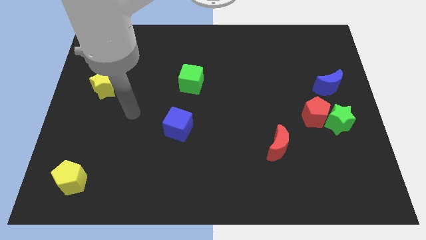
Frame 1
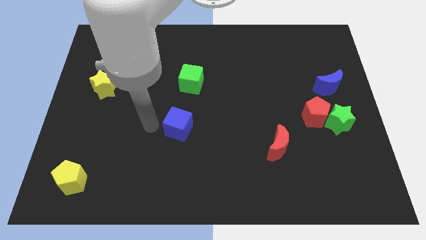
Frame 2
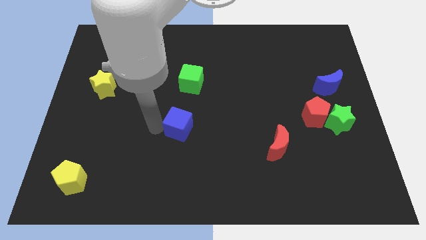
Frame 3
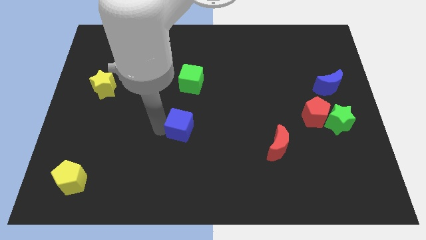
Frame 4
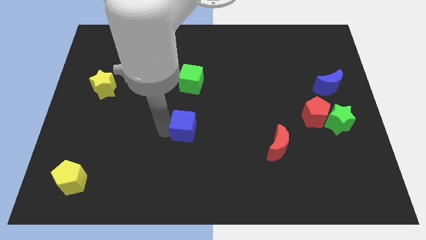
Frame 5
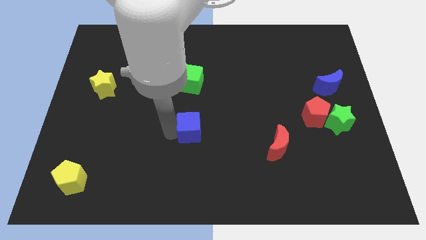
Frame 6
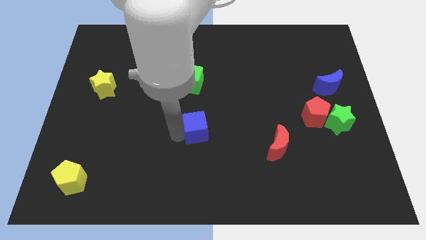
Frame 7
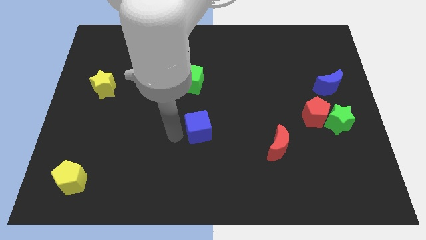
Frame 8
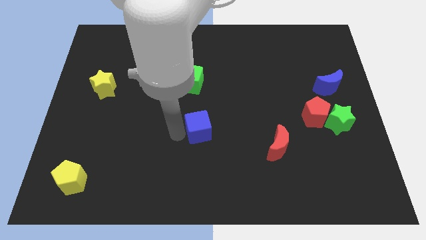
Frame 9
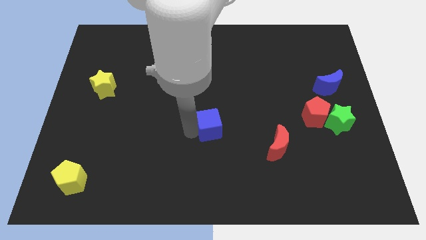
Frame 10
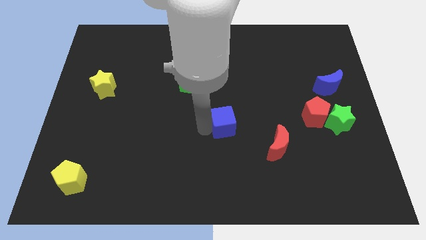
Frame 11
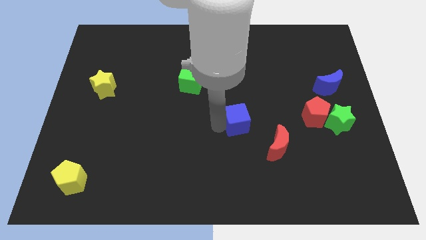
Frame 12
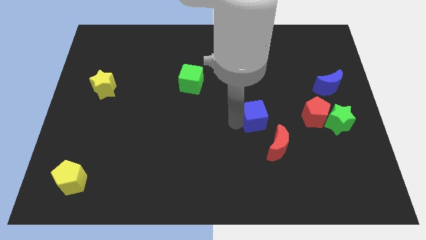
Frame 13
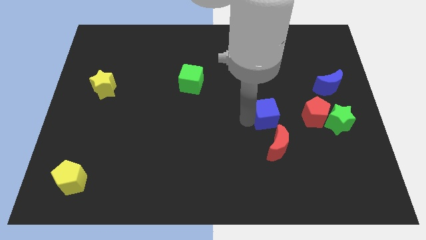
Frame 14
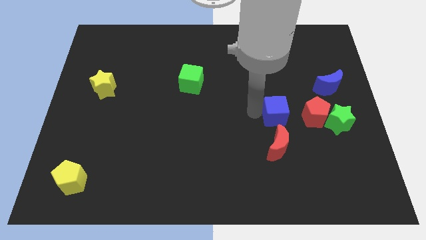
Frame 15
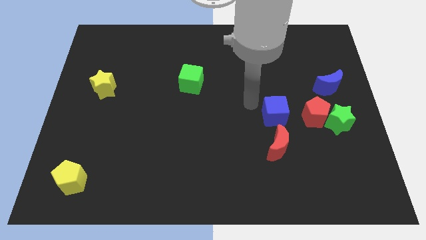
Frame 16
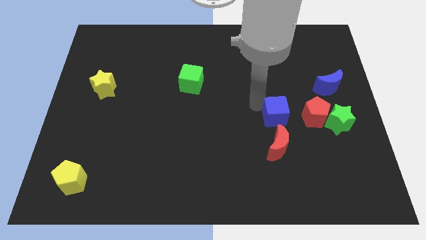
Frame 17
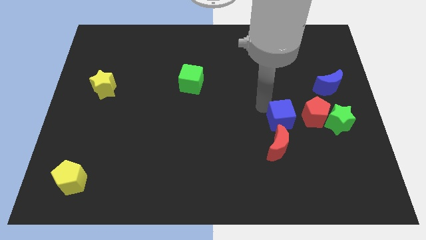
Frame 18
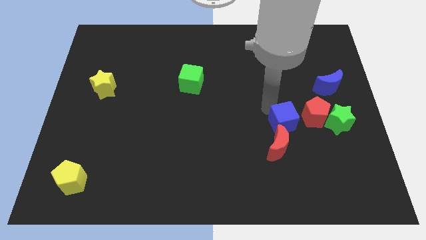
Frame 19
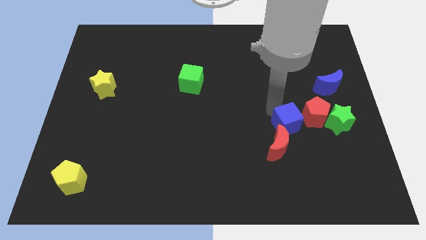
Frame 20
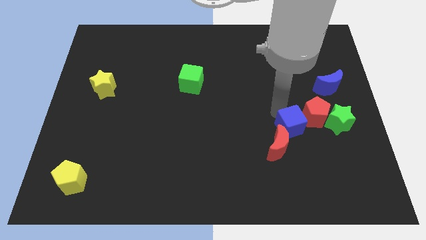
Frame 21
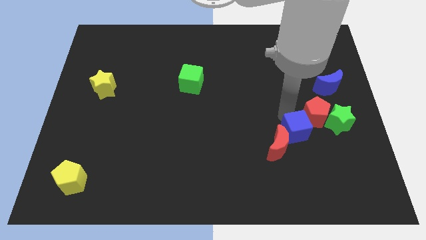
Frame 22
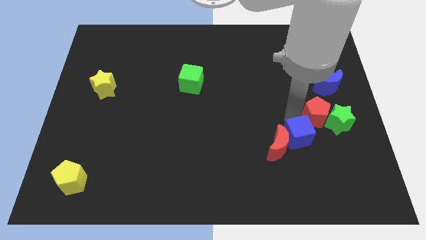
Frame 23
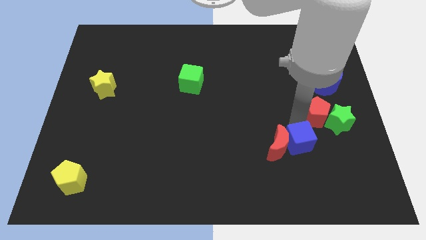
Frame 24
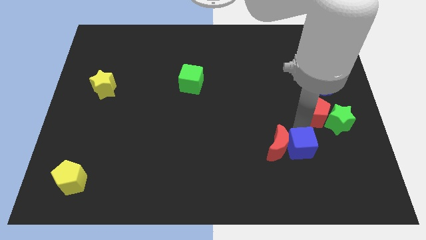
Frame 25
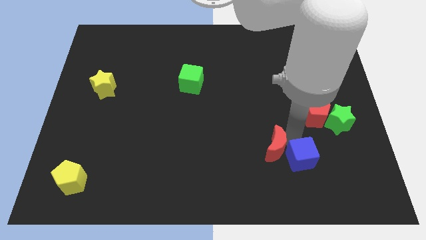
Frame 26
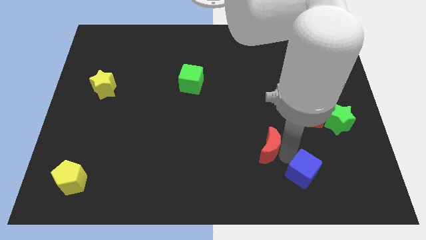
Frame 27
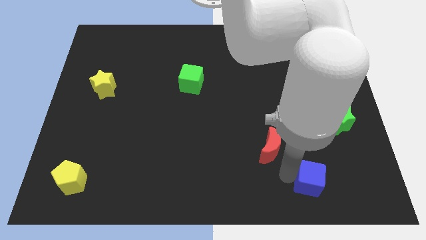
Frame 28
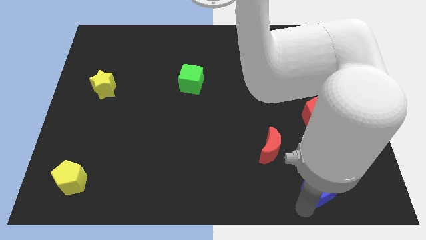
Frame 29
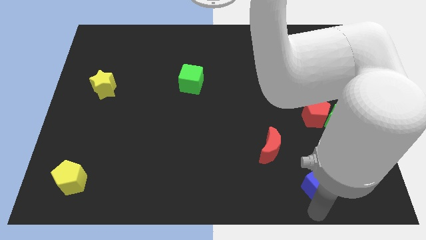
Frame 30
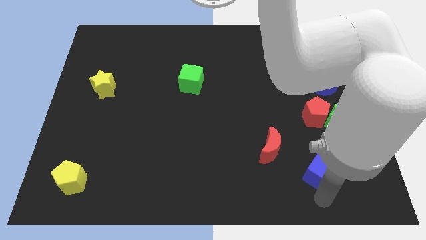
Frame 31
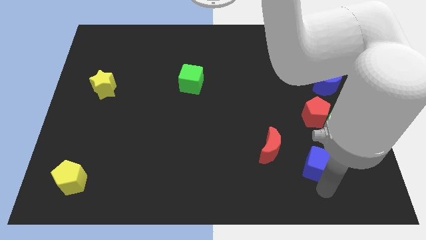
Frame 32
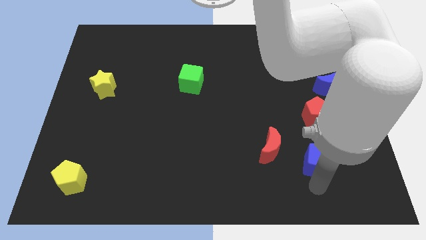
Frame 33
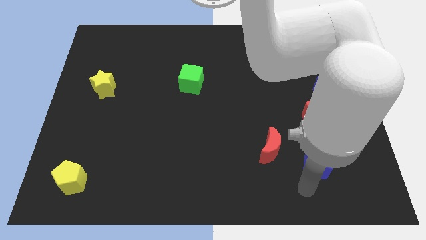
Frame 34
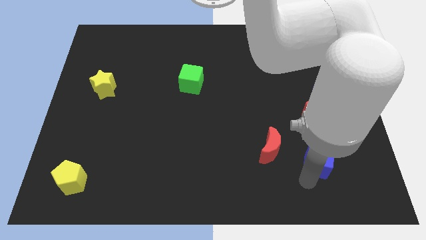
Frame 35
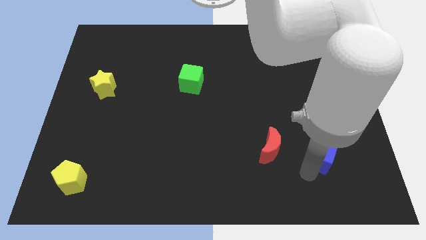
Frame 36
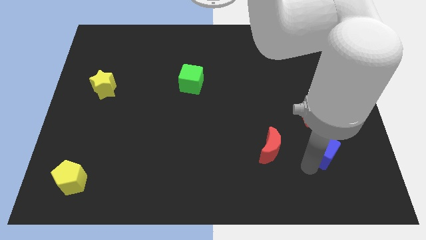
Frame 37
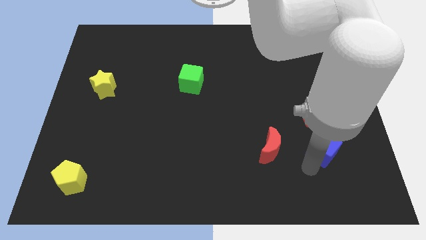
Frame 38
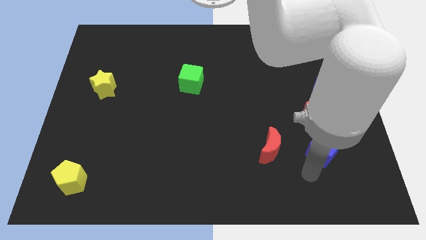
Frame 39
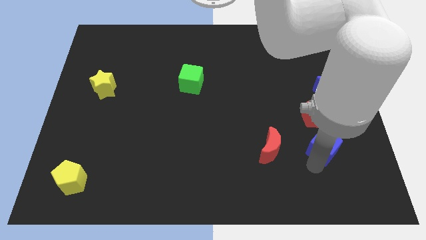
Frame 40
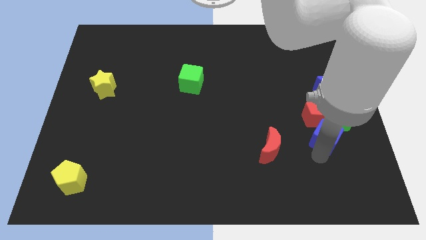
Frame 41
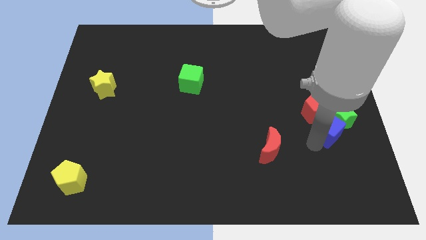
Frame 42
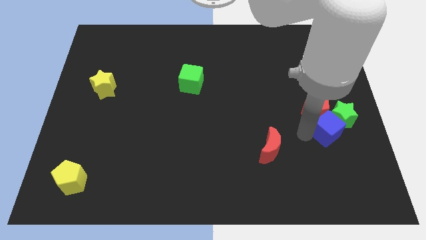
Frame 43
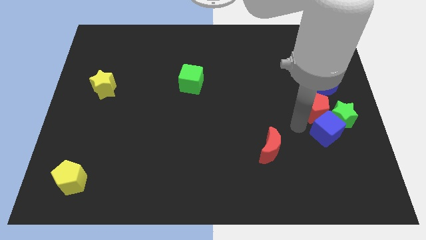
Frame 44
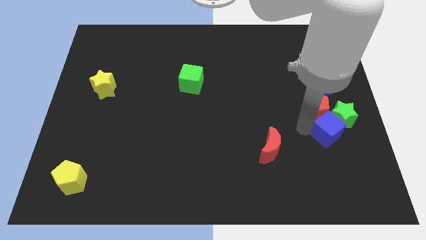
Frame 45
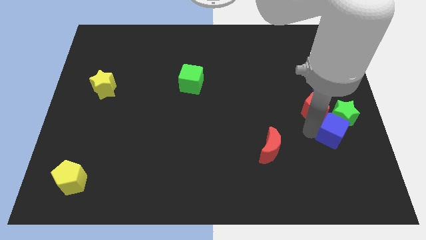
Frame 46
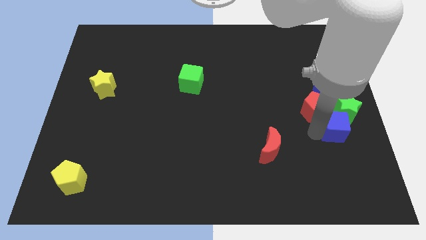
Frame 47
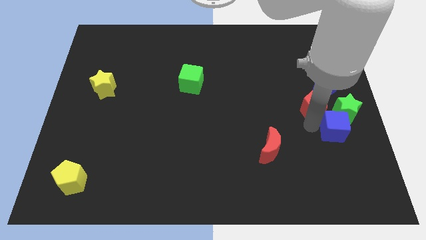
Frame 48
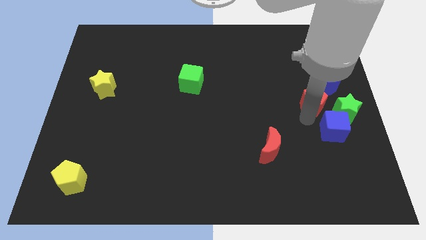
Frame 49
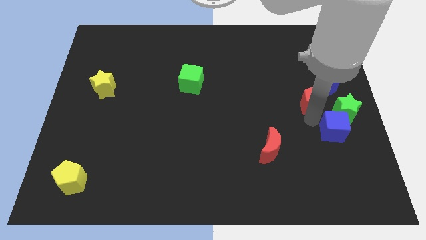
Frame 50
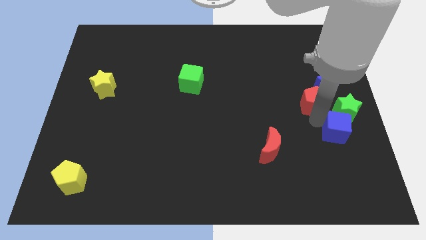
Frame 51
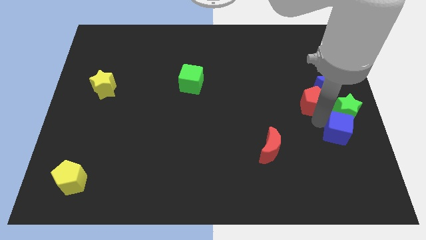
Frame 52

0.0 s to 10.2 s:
move the blue cube to the right side of the board

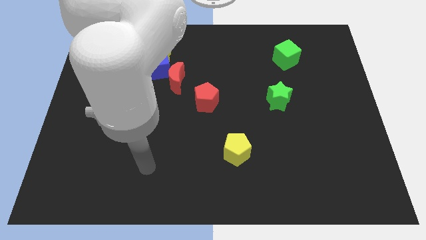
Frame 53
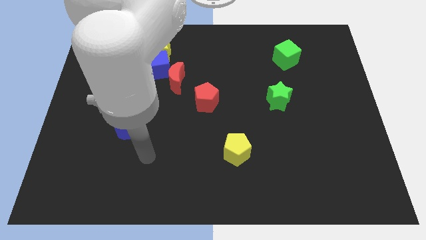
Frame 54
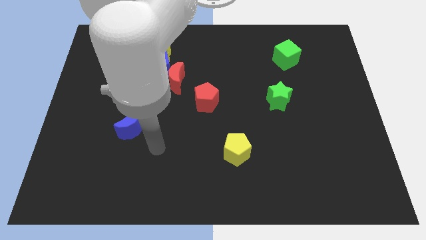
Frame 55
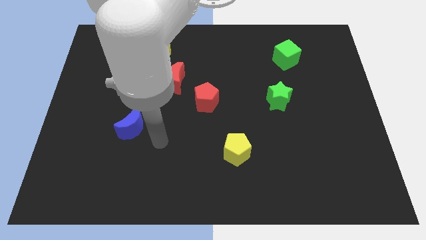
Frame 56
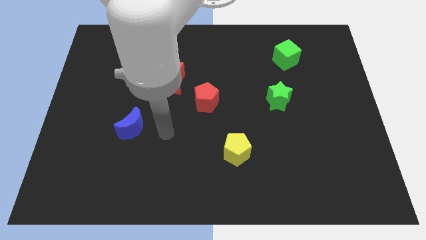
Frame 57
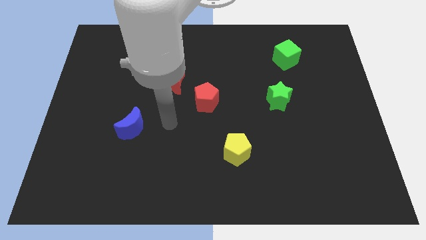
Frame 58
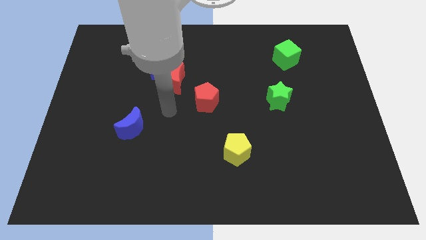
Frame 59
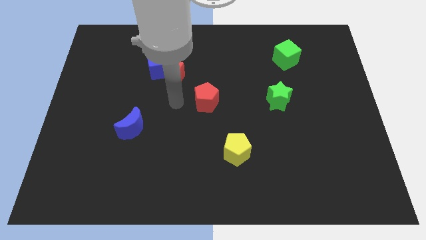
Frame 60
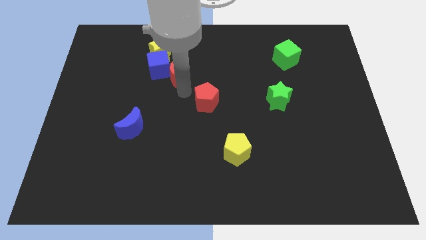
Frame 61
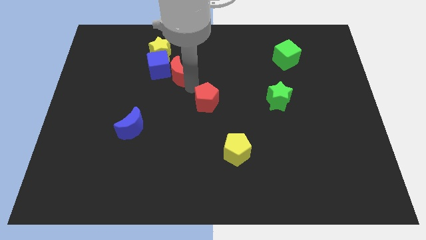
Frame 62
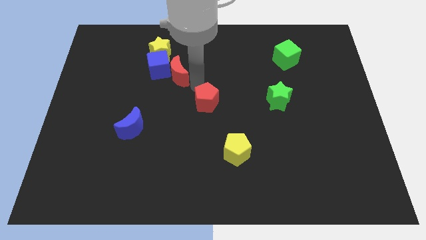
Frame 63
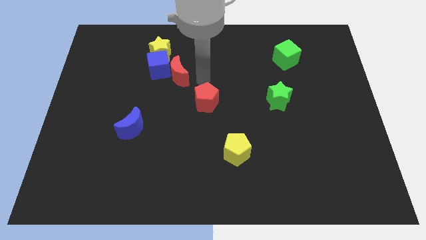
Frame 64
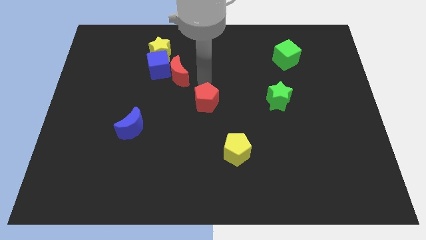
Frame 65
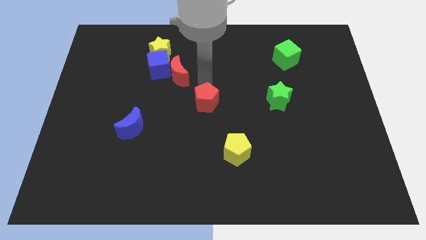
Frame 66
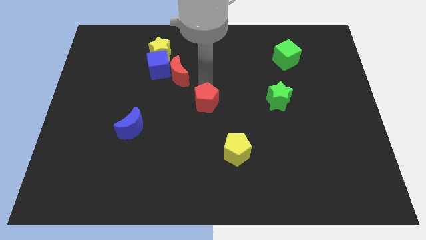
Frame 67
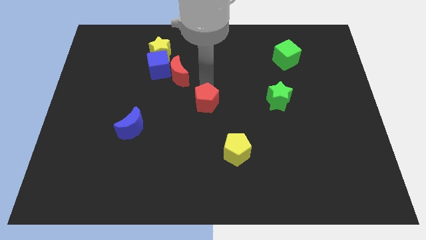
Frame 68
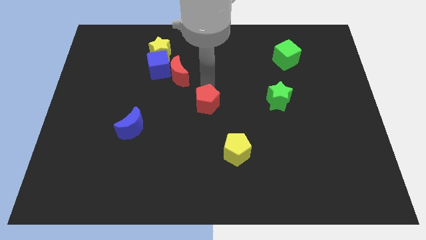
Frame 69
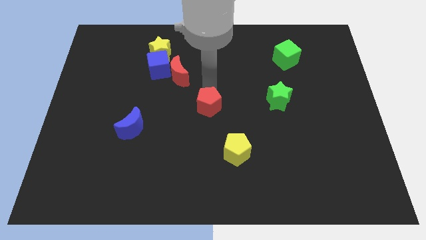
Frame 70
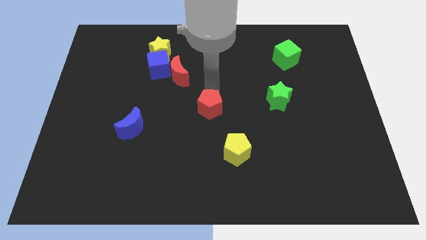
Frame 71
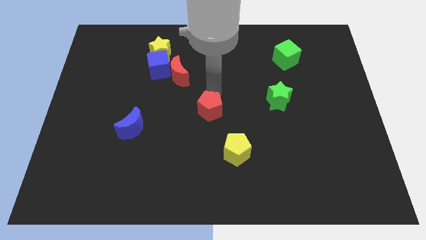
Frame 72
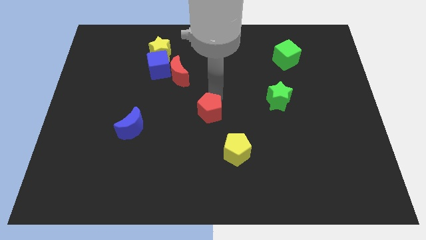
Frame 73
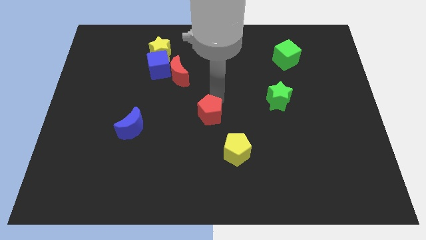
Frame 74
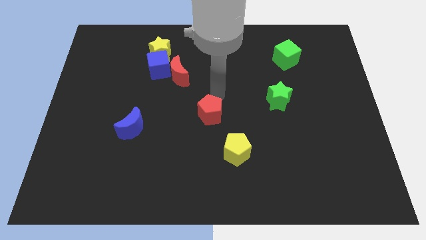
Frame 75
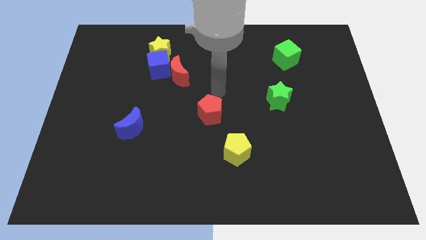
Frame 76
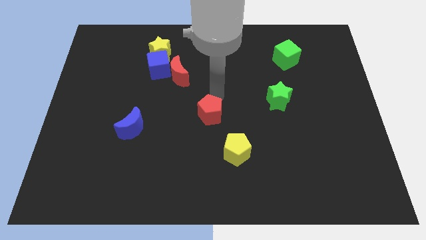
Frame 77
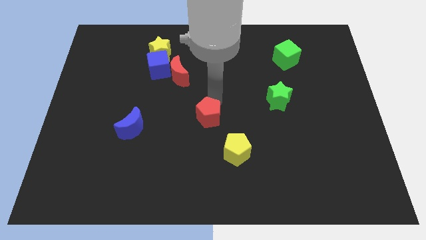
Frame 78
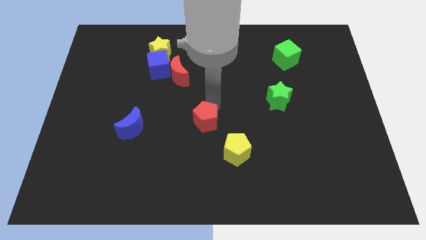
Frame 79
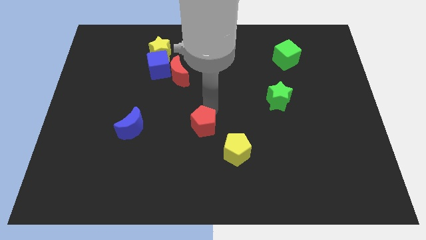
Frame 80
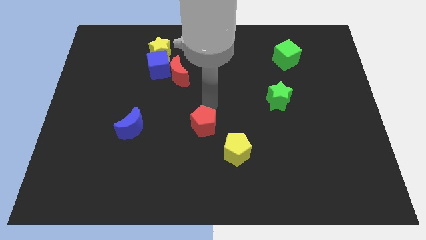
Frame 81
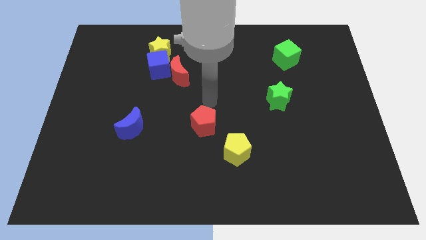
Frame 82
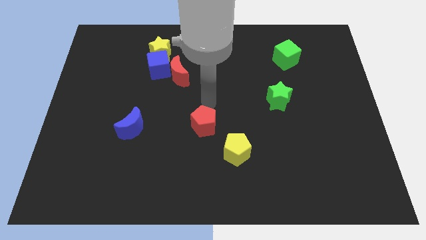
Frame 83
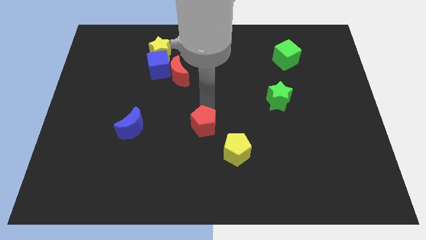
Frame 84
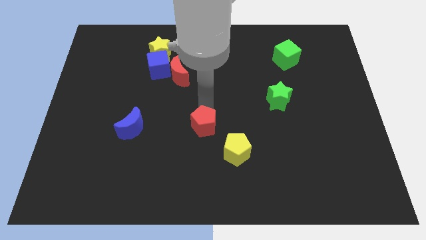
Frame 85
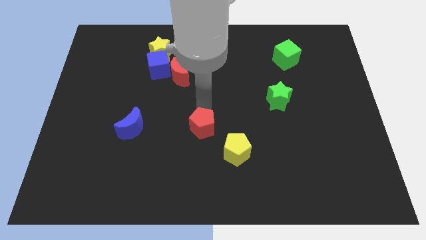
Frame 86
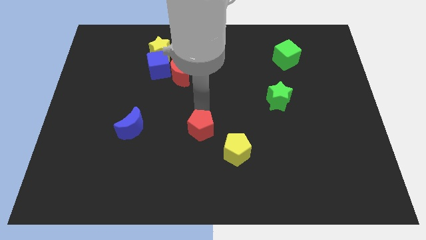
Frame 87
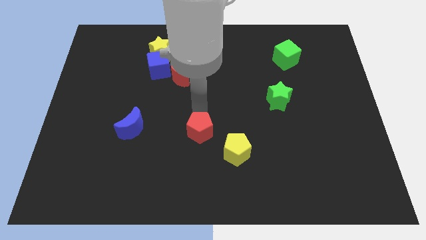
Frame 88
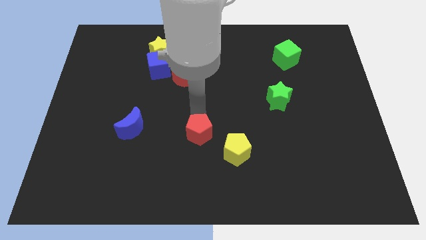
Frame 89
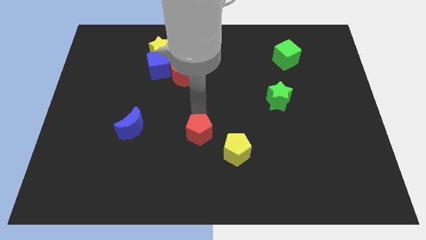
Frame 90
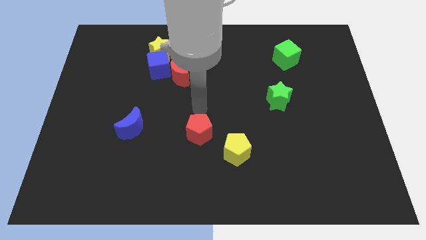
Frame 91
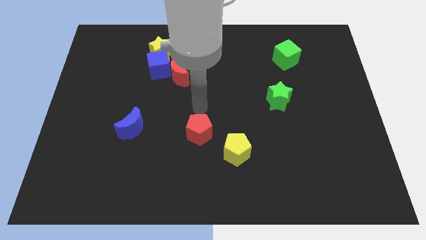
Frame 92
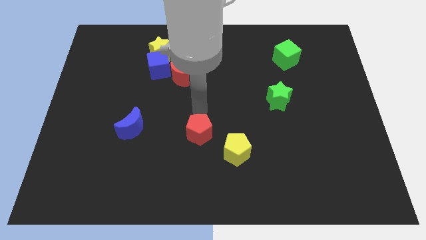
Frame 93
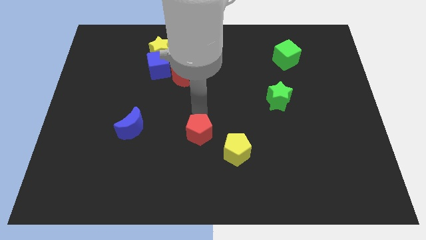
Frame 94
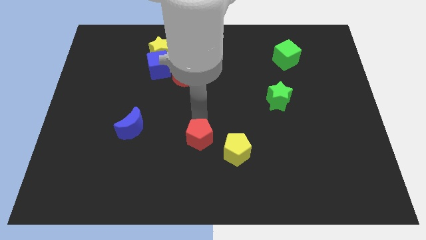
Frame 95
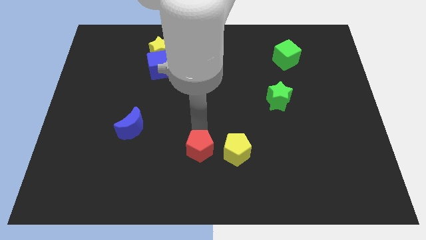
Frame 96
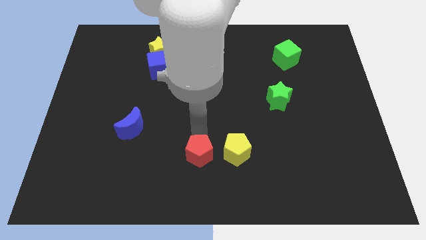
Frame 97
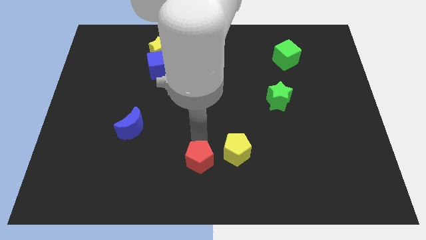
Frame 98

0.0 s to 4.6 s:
move the red pentagon to the bottom side
